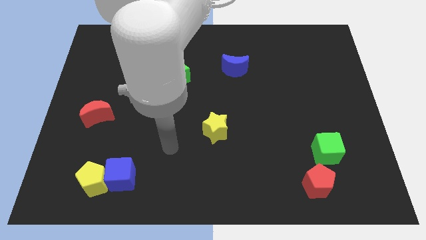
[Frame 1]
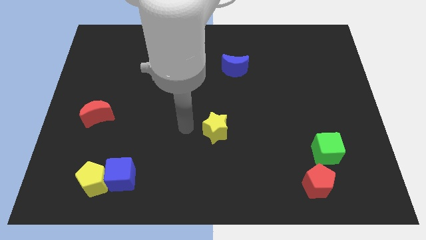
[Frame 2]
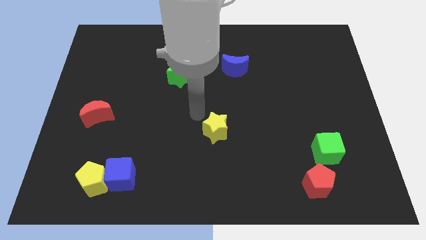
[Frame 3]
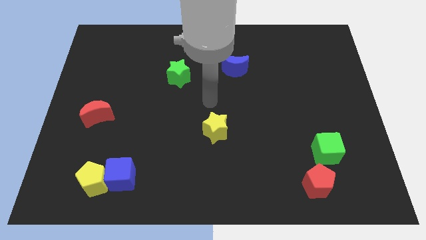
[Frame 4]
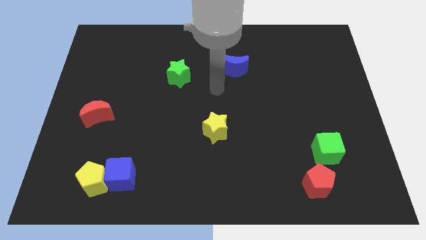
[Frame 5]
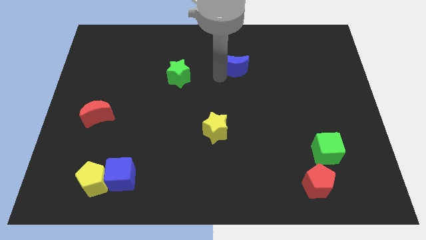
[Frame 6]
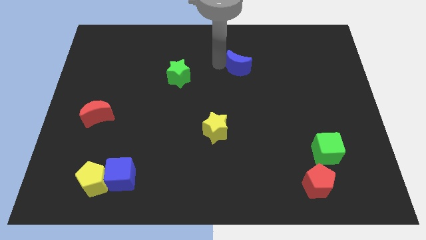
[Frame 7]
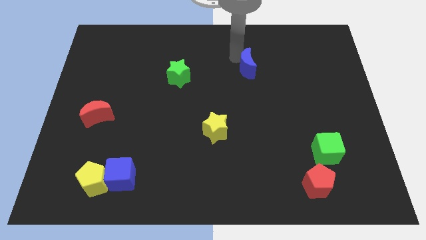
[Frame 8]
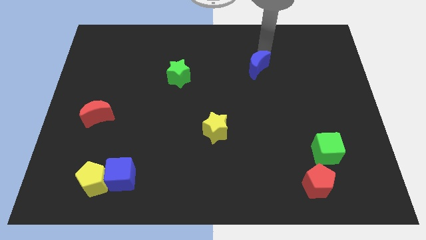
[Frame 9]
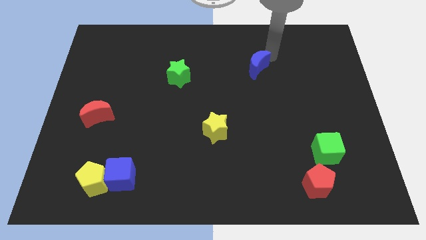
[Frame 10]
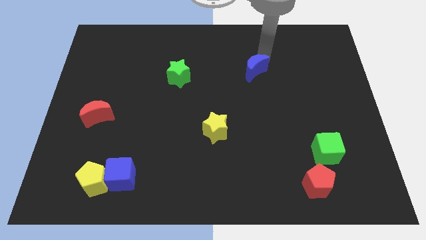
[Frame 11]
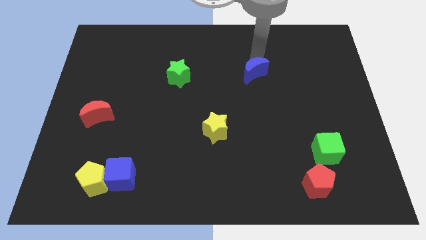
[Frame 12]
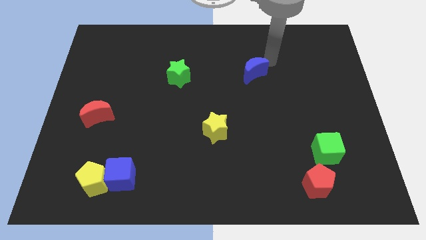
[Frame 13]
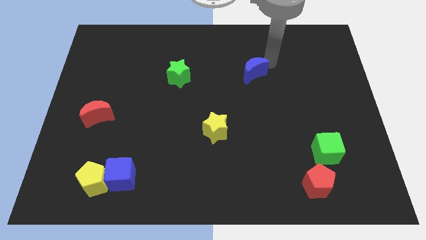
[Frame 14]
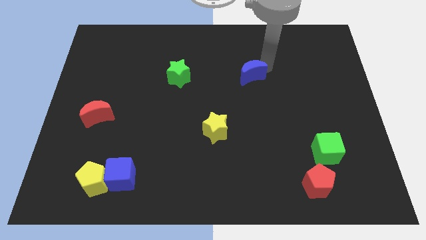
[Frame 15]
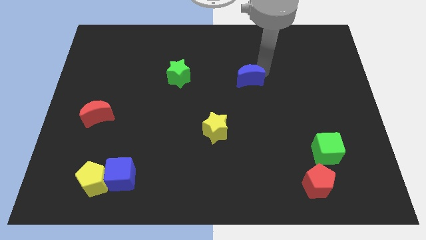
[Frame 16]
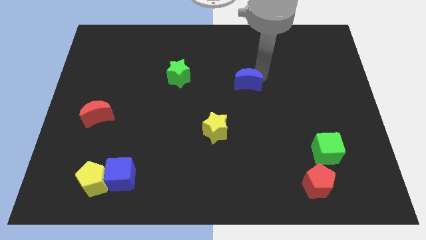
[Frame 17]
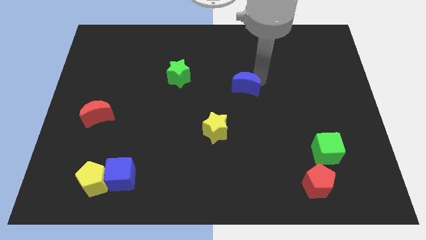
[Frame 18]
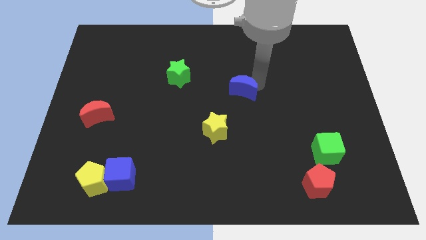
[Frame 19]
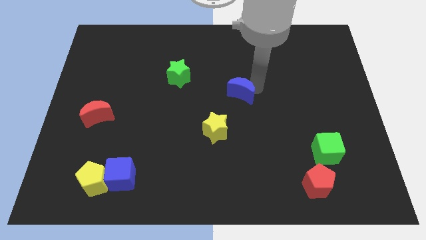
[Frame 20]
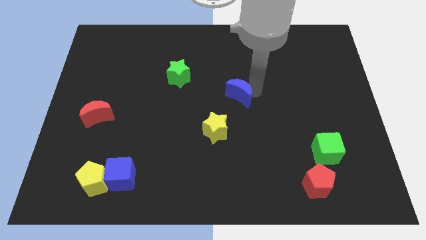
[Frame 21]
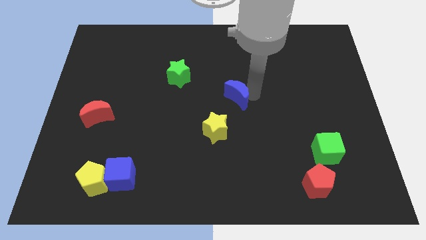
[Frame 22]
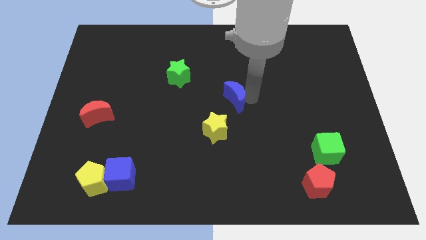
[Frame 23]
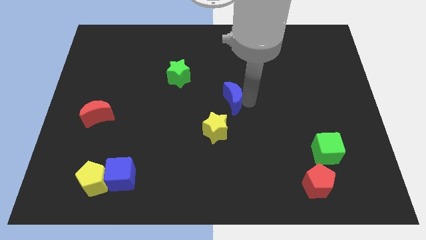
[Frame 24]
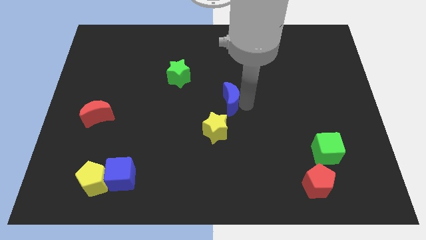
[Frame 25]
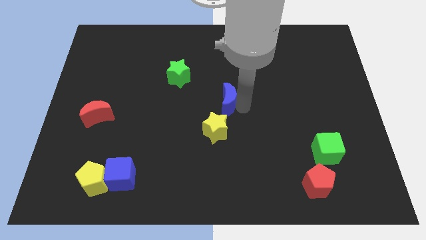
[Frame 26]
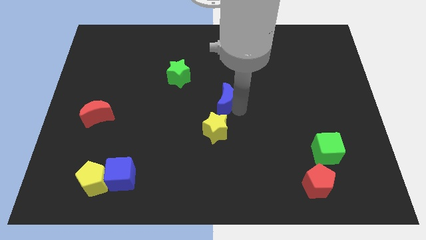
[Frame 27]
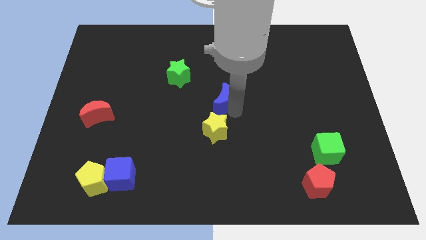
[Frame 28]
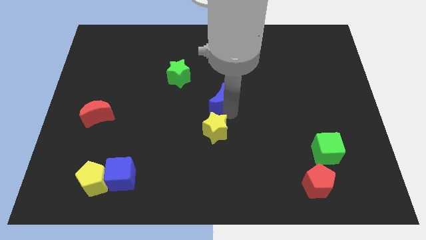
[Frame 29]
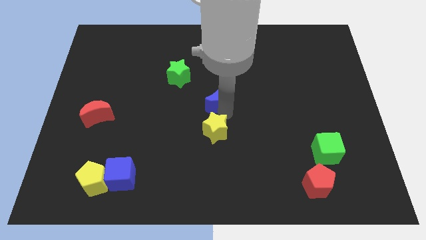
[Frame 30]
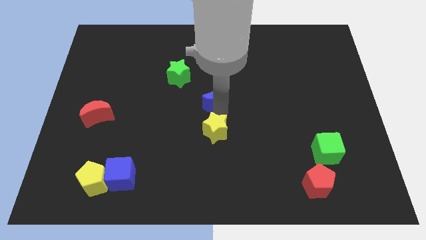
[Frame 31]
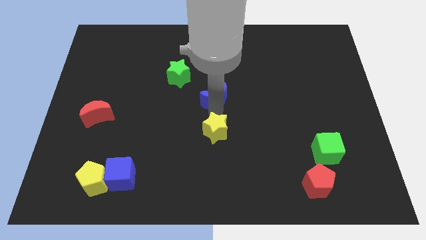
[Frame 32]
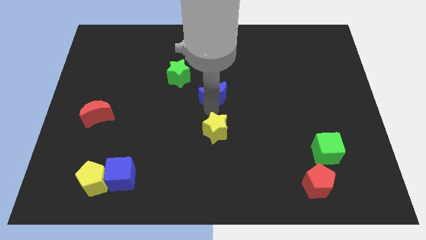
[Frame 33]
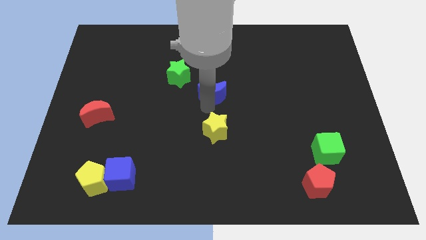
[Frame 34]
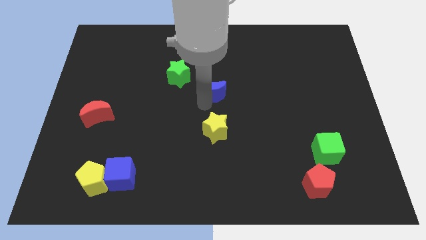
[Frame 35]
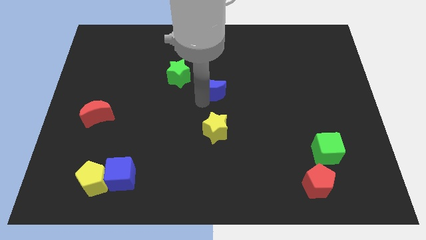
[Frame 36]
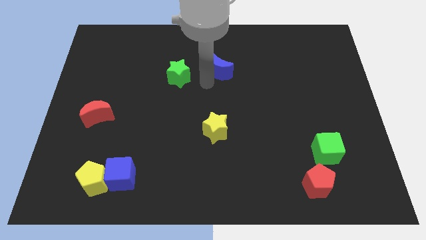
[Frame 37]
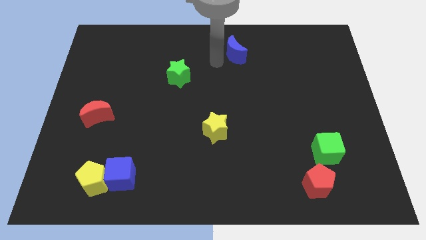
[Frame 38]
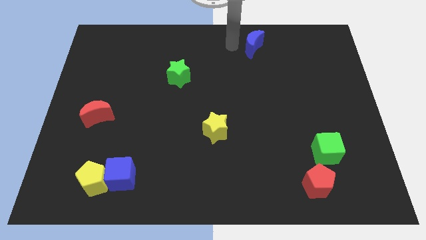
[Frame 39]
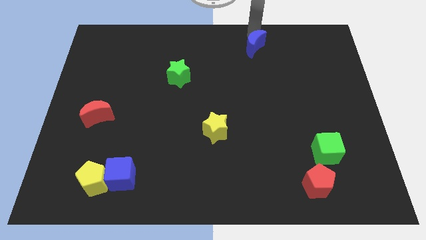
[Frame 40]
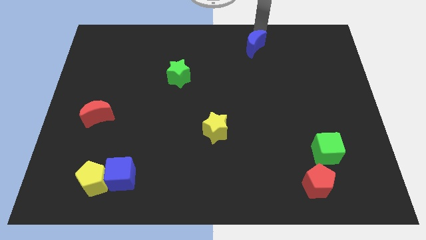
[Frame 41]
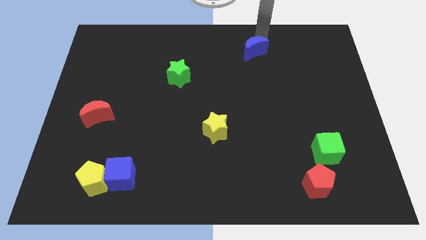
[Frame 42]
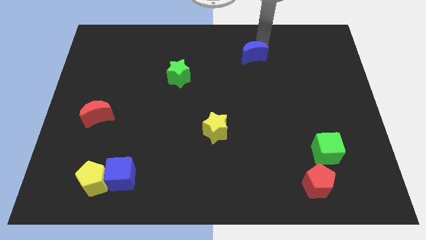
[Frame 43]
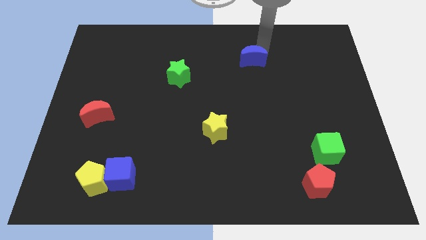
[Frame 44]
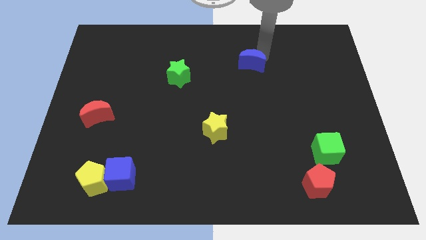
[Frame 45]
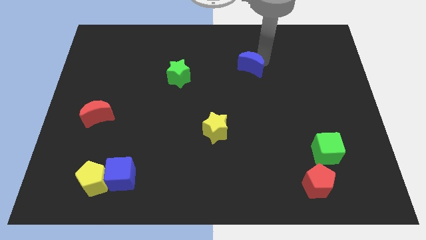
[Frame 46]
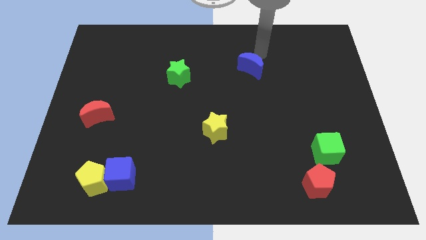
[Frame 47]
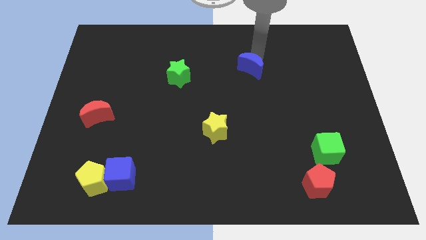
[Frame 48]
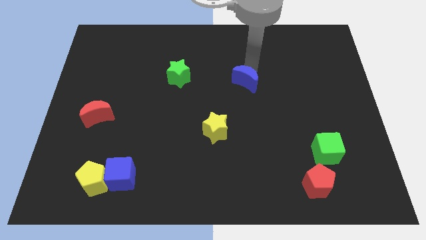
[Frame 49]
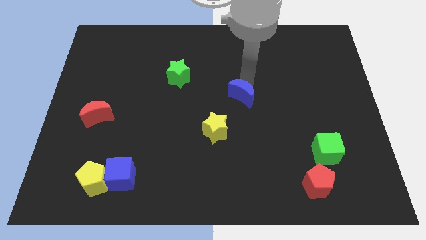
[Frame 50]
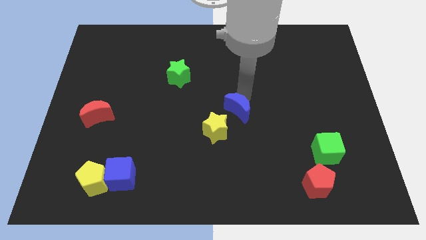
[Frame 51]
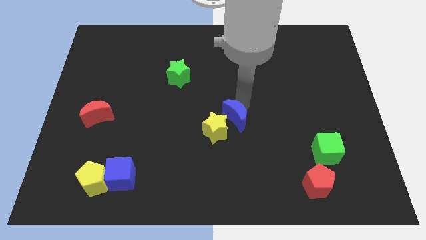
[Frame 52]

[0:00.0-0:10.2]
move the blue moon next to the yellow star

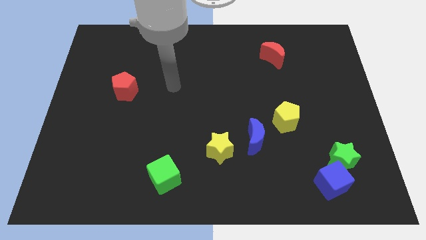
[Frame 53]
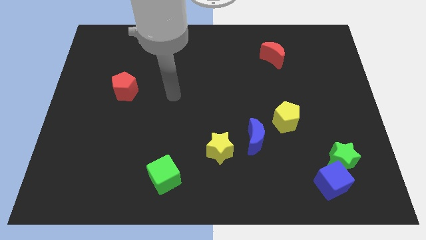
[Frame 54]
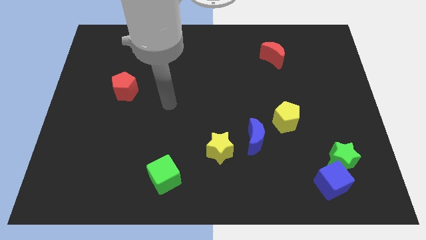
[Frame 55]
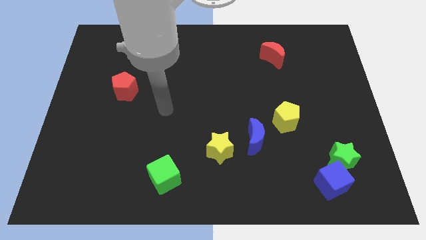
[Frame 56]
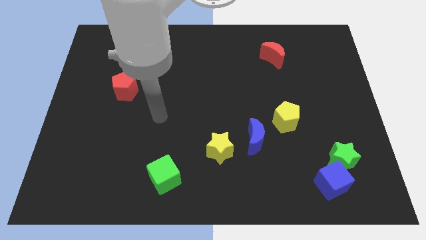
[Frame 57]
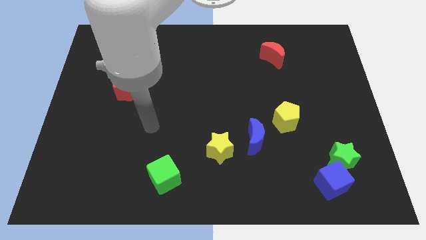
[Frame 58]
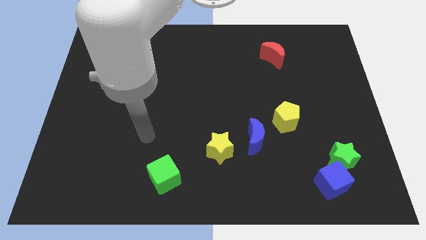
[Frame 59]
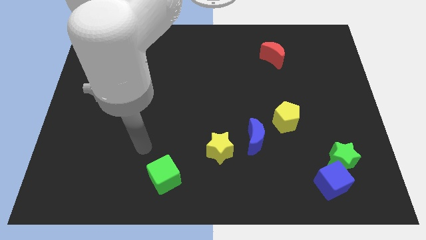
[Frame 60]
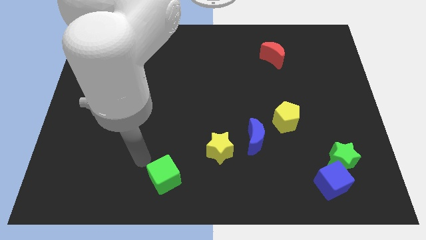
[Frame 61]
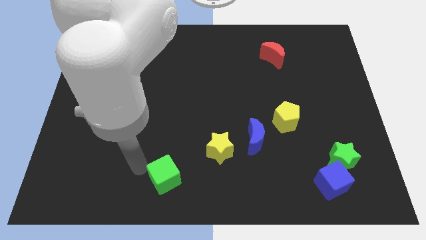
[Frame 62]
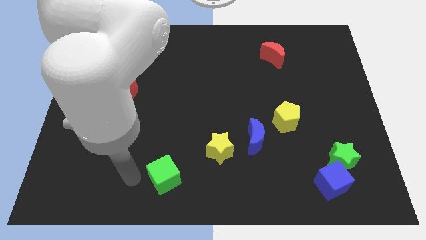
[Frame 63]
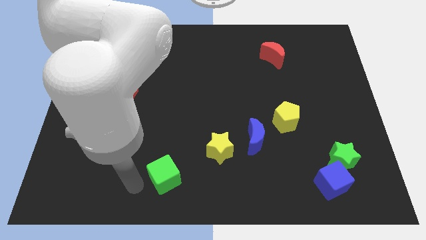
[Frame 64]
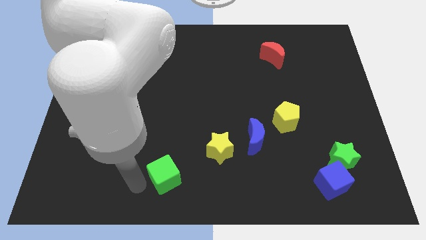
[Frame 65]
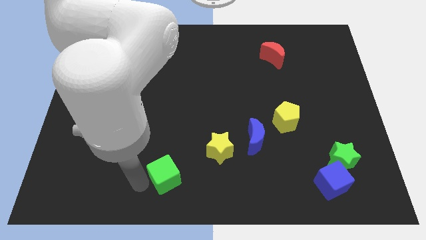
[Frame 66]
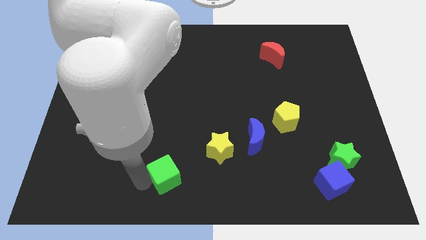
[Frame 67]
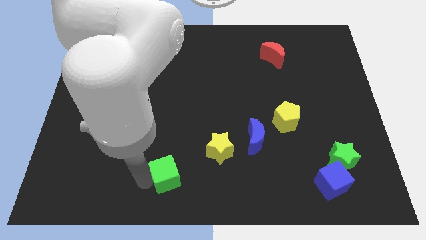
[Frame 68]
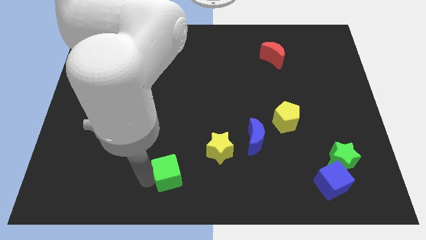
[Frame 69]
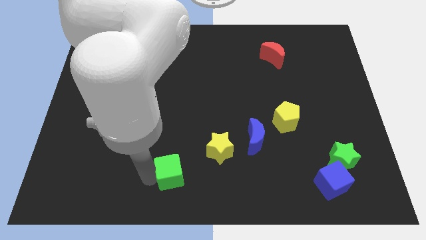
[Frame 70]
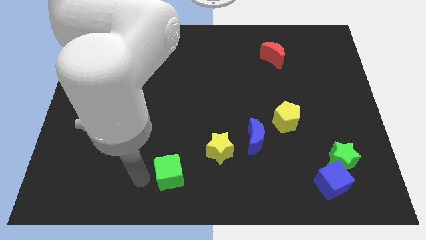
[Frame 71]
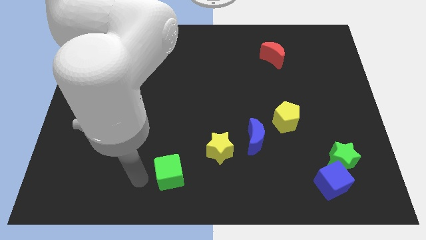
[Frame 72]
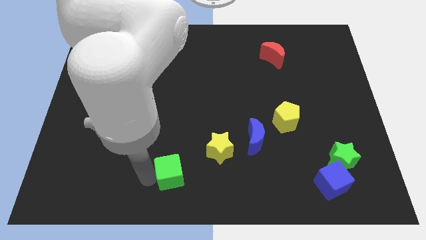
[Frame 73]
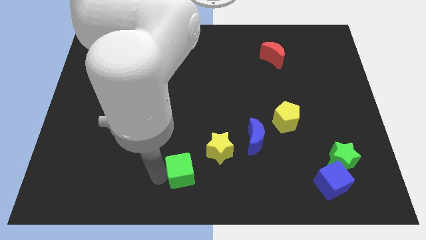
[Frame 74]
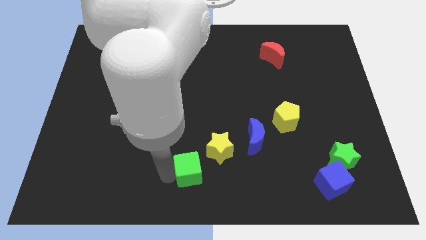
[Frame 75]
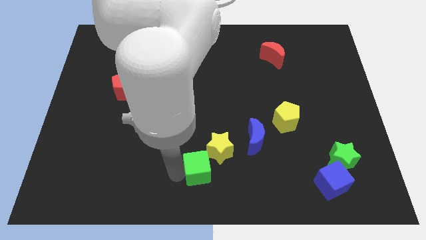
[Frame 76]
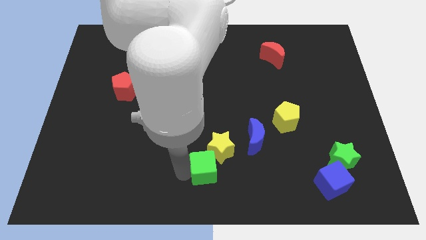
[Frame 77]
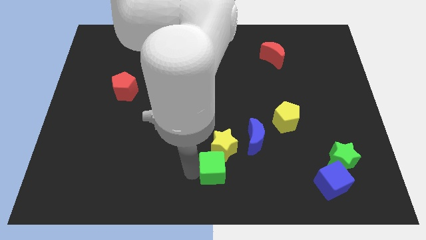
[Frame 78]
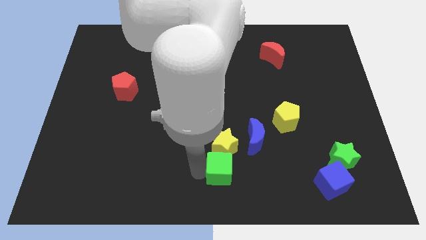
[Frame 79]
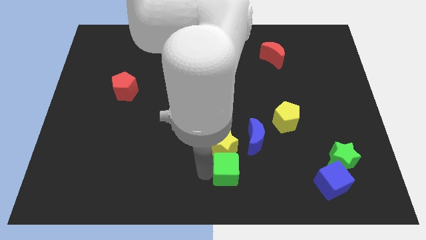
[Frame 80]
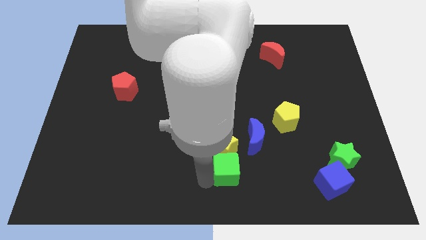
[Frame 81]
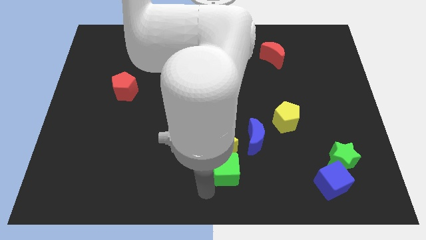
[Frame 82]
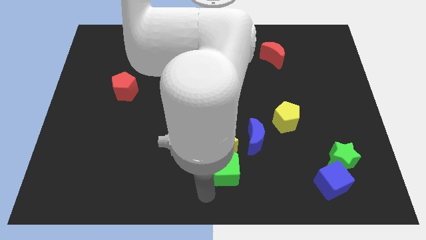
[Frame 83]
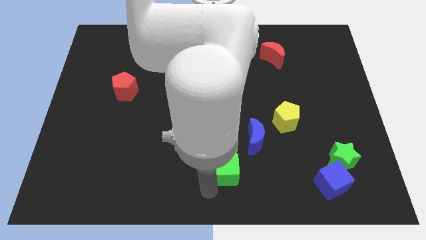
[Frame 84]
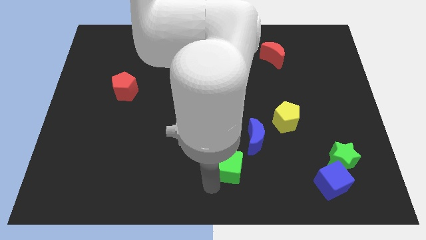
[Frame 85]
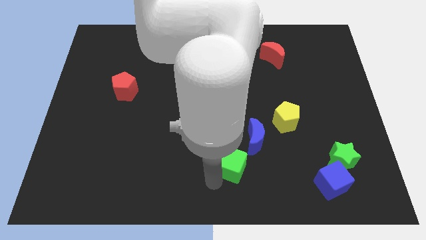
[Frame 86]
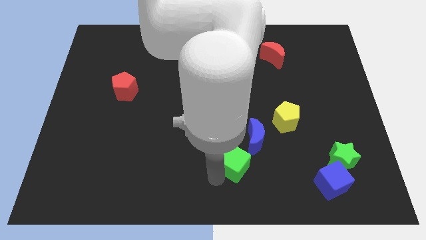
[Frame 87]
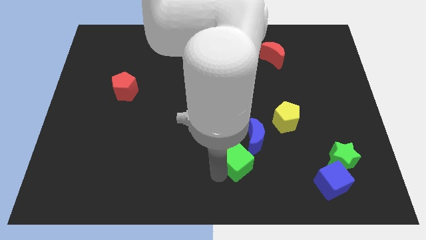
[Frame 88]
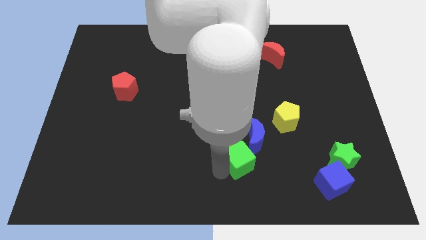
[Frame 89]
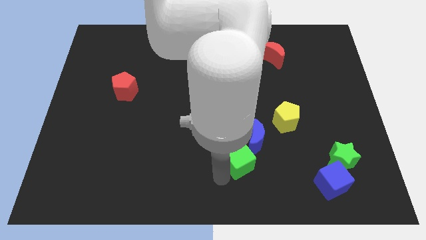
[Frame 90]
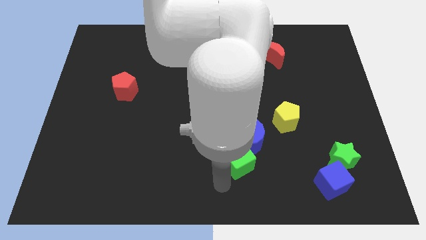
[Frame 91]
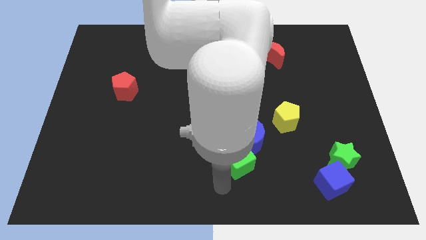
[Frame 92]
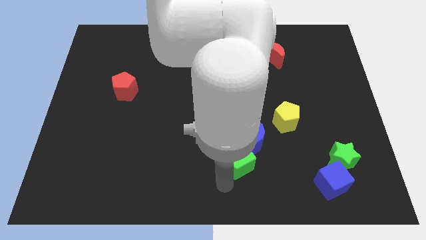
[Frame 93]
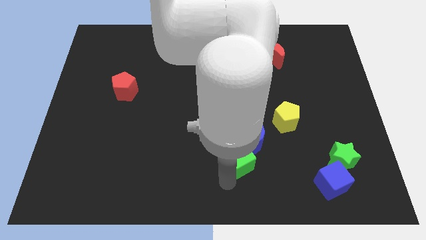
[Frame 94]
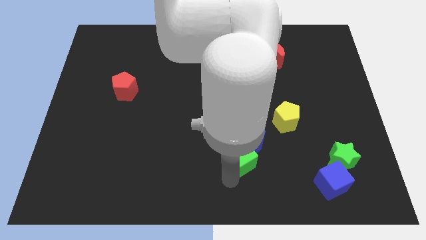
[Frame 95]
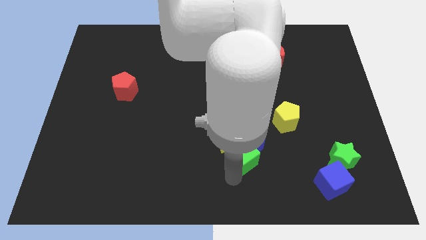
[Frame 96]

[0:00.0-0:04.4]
move the green cube to the blue moon
